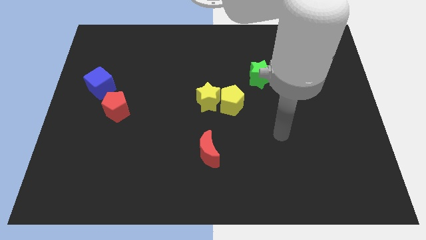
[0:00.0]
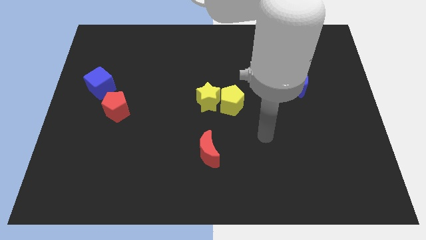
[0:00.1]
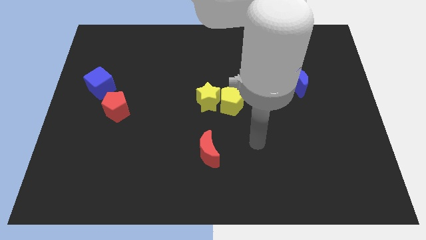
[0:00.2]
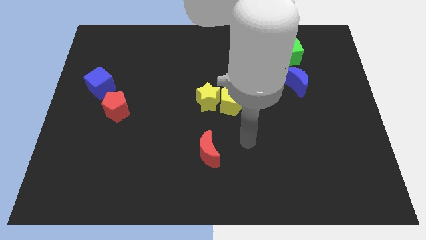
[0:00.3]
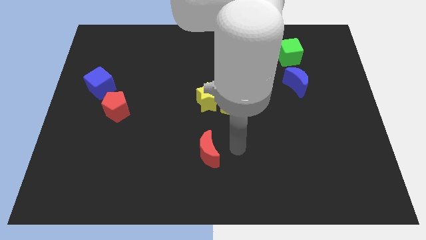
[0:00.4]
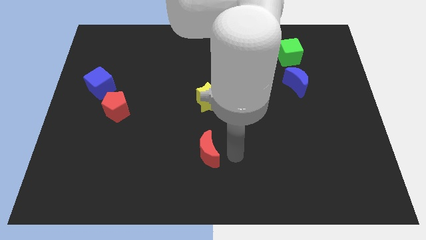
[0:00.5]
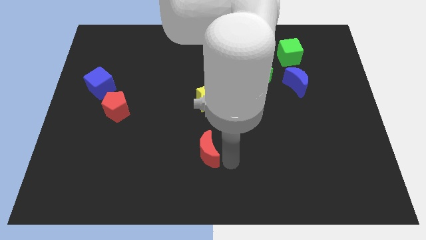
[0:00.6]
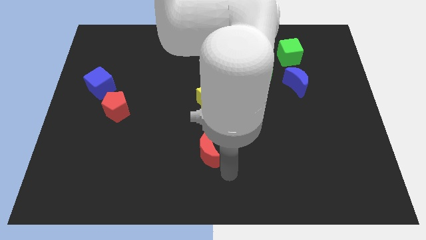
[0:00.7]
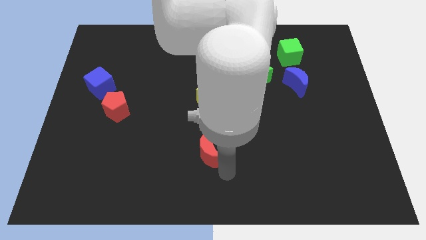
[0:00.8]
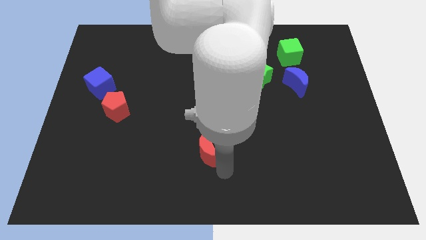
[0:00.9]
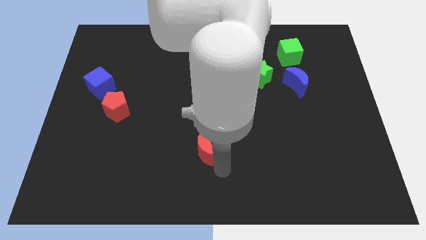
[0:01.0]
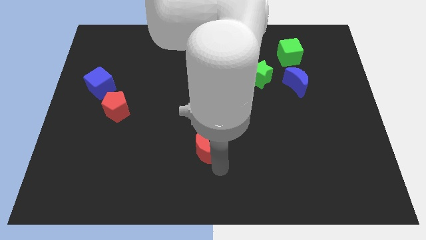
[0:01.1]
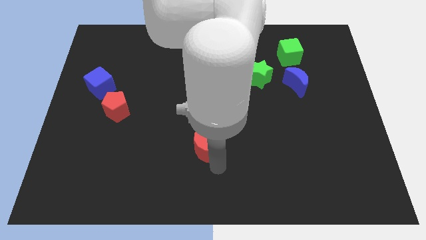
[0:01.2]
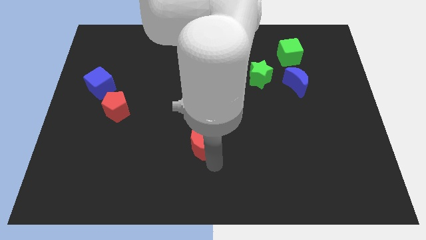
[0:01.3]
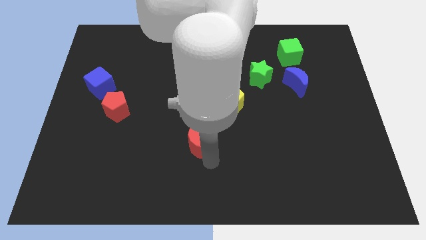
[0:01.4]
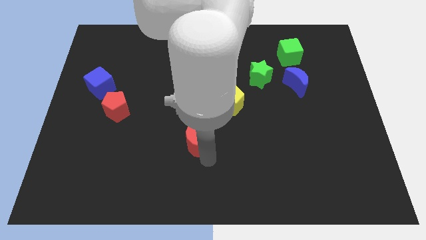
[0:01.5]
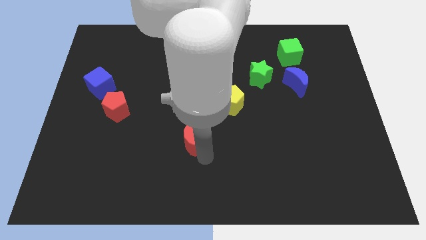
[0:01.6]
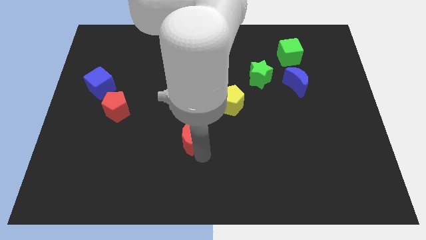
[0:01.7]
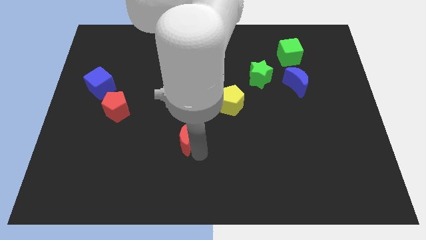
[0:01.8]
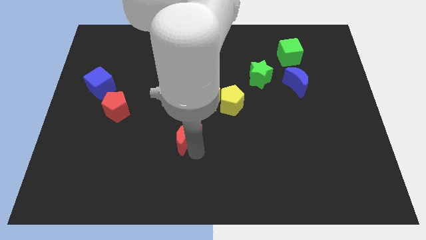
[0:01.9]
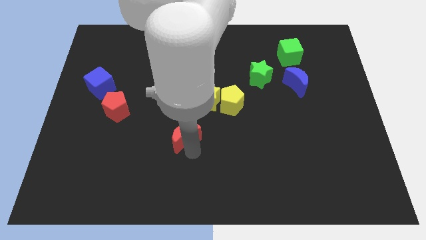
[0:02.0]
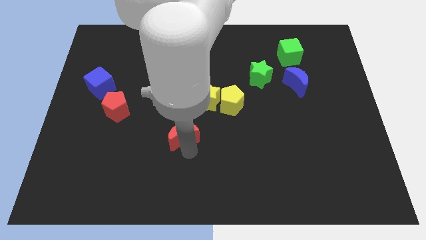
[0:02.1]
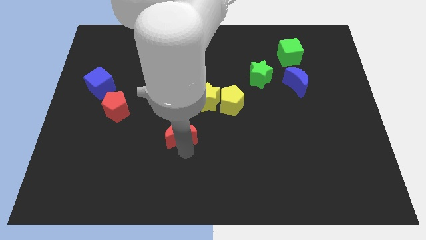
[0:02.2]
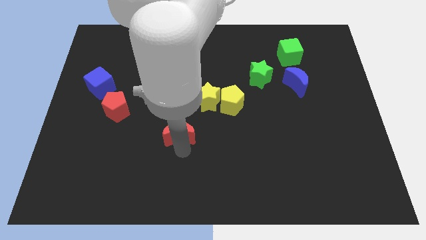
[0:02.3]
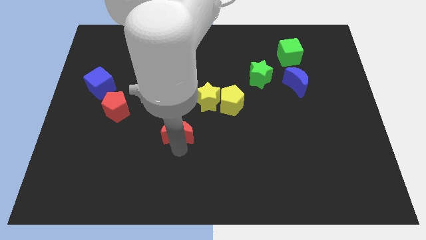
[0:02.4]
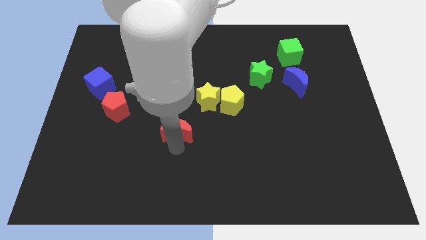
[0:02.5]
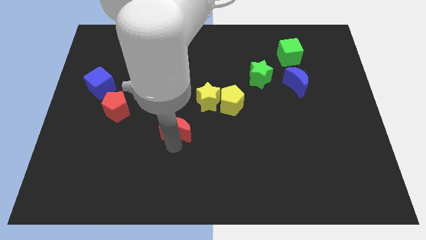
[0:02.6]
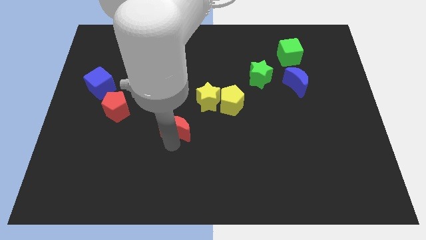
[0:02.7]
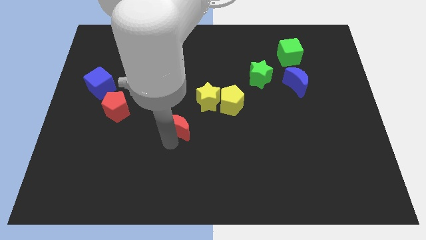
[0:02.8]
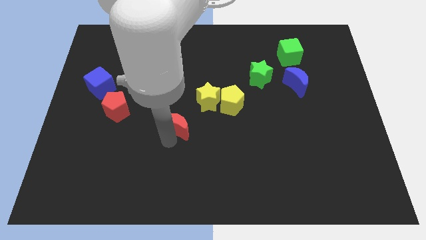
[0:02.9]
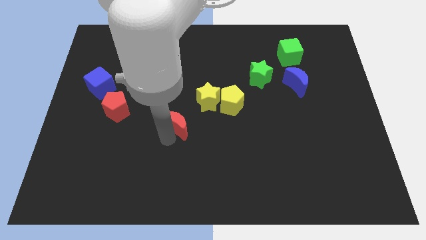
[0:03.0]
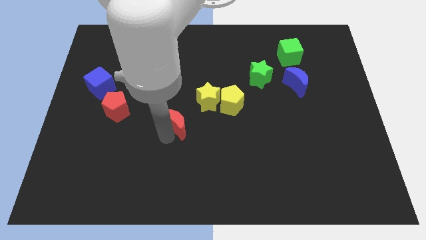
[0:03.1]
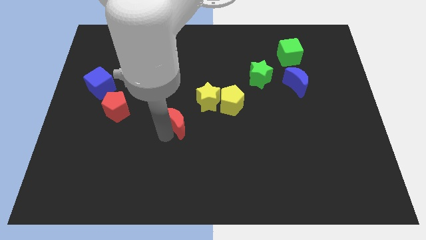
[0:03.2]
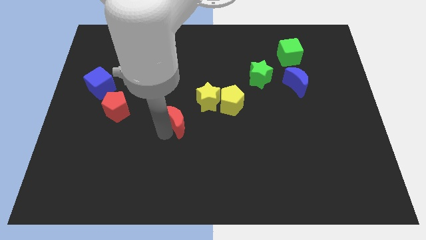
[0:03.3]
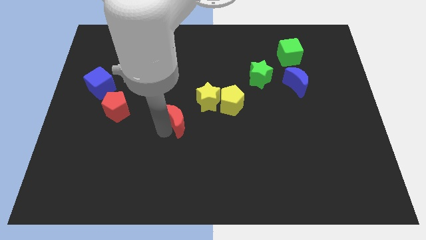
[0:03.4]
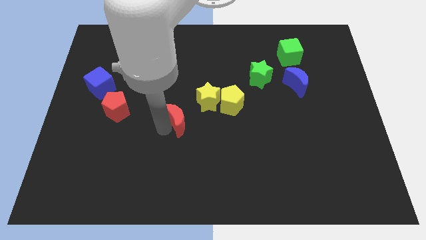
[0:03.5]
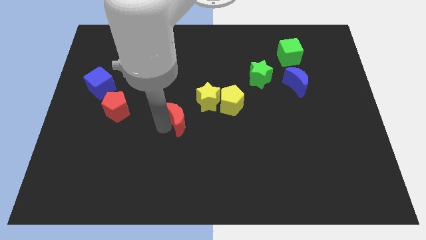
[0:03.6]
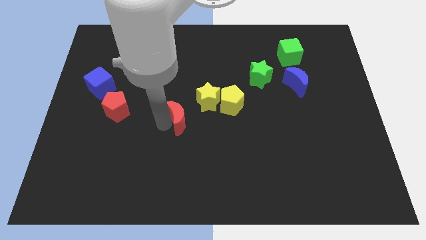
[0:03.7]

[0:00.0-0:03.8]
slightly move the red moon up

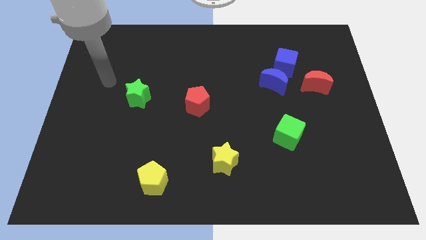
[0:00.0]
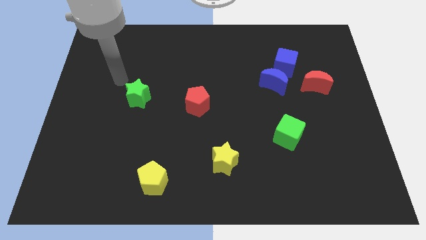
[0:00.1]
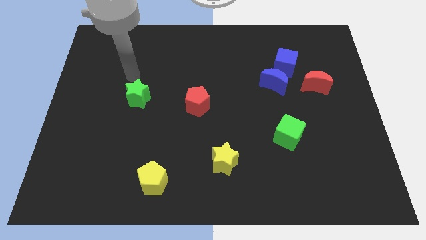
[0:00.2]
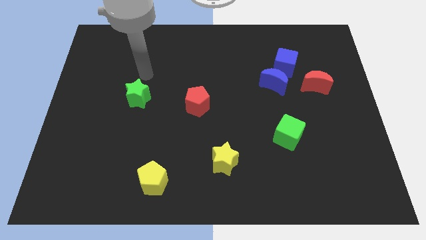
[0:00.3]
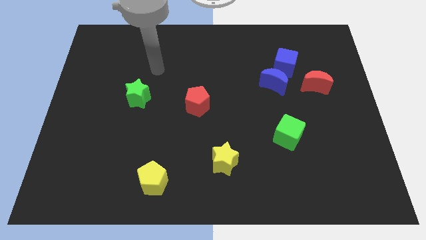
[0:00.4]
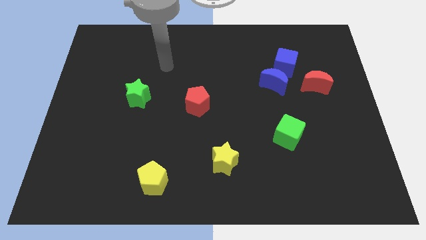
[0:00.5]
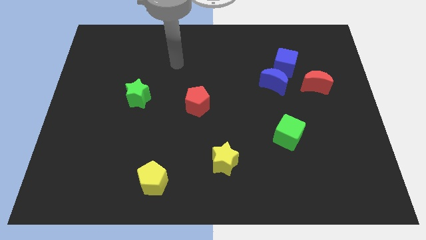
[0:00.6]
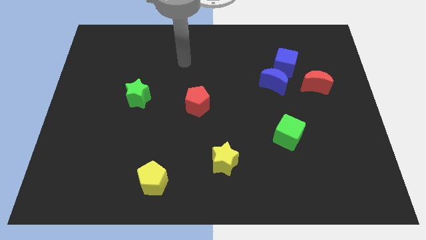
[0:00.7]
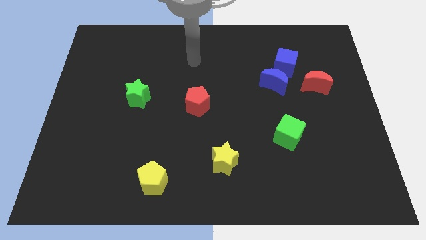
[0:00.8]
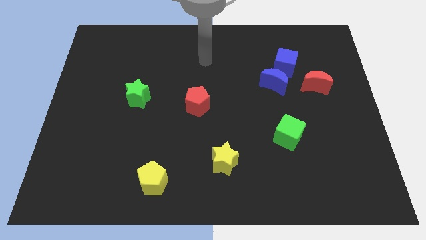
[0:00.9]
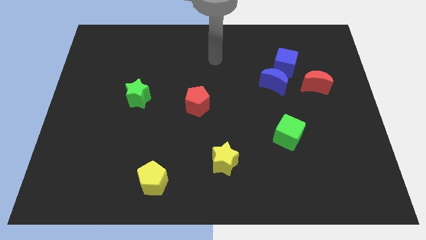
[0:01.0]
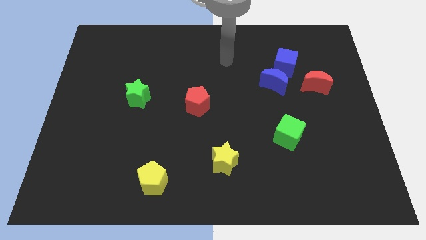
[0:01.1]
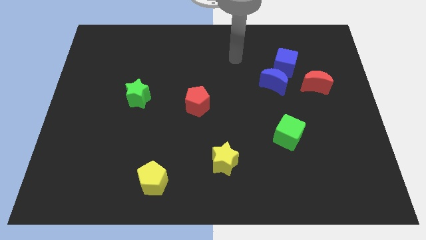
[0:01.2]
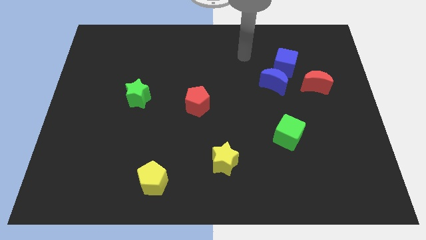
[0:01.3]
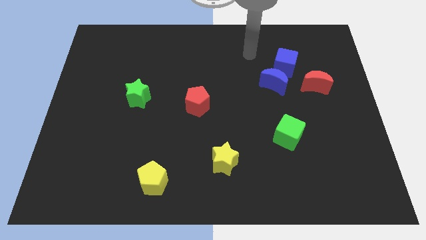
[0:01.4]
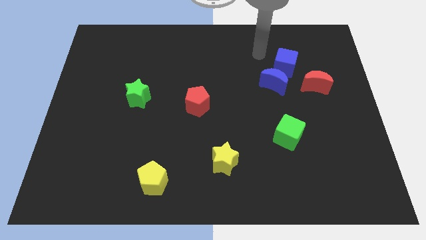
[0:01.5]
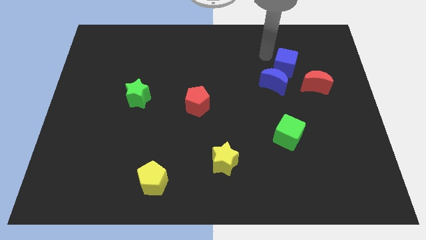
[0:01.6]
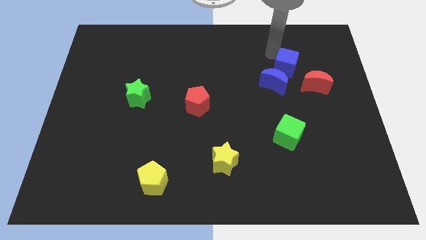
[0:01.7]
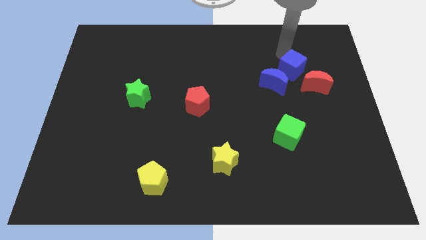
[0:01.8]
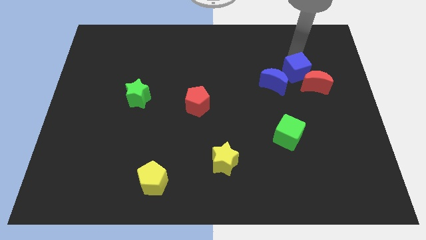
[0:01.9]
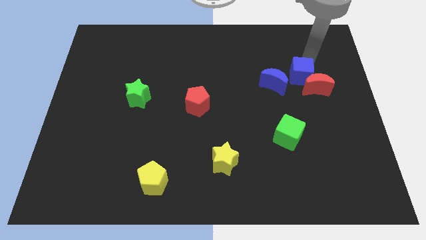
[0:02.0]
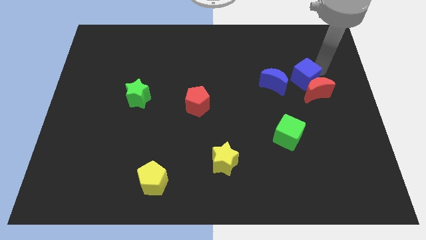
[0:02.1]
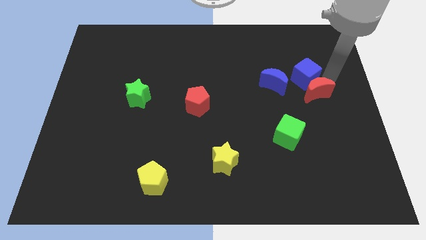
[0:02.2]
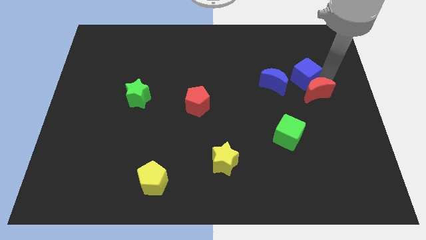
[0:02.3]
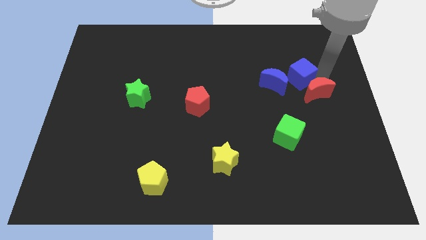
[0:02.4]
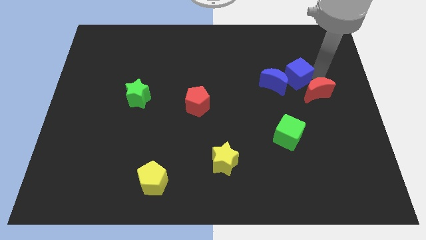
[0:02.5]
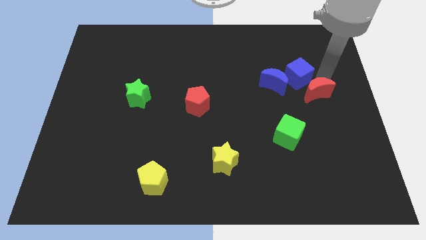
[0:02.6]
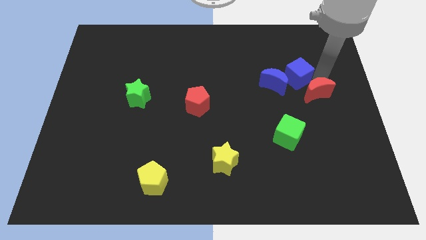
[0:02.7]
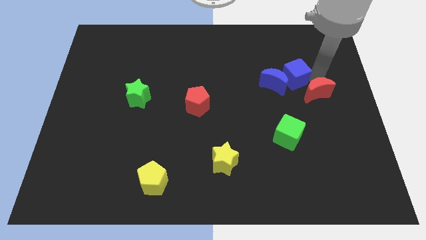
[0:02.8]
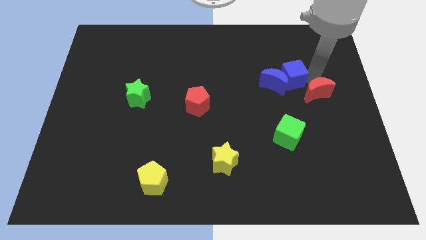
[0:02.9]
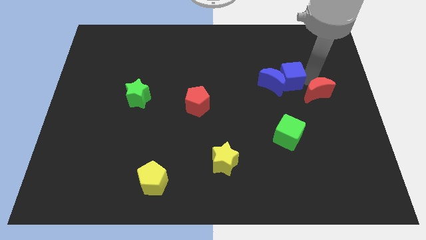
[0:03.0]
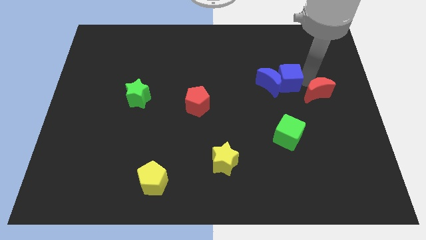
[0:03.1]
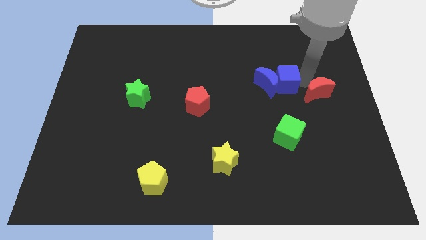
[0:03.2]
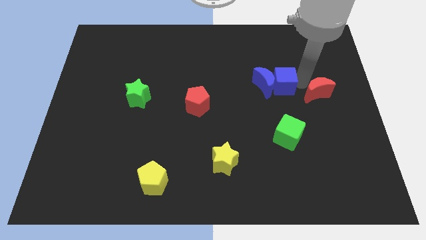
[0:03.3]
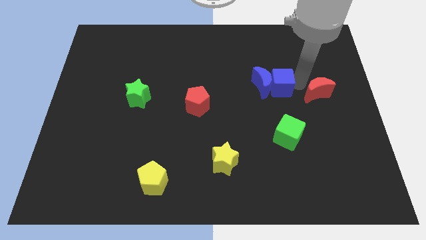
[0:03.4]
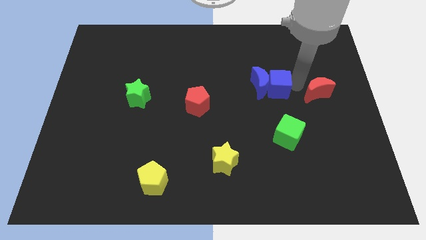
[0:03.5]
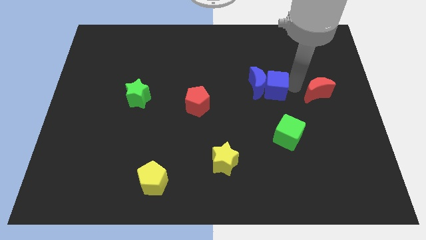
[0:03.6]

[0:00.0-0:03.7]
slide the blue cube slightly downwards and to the left

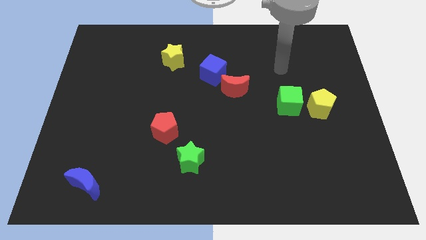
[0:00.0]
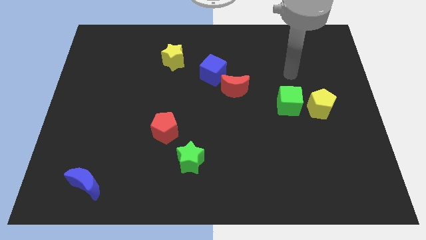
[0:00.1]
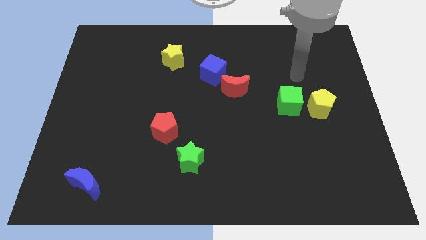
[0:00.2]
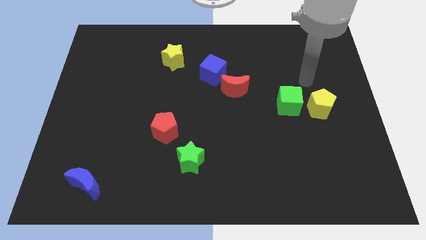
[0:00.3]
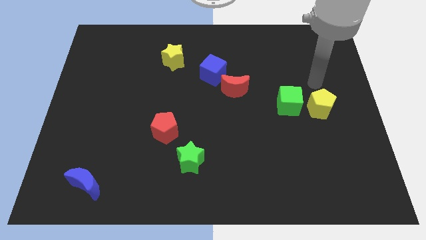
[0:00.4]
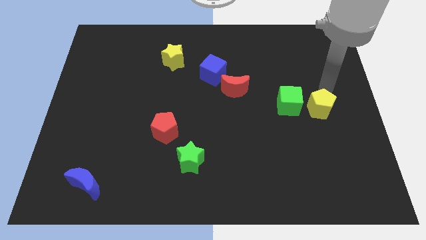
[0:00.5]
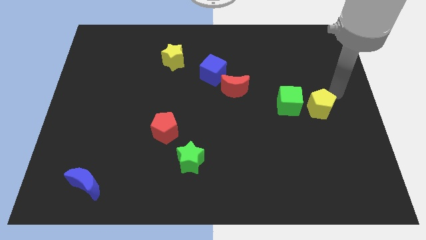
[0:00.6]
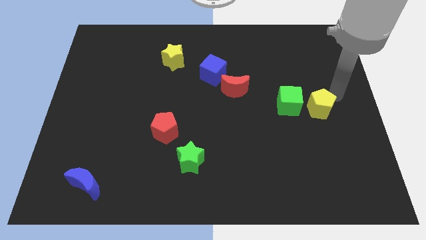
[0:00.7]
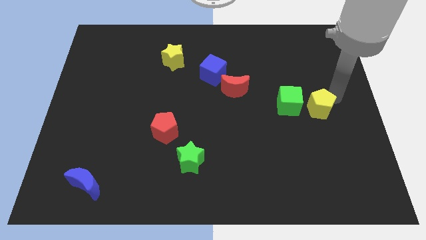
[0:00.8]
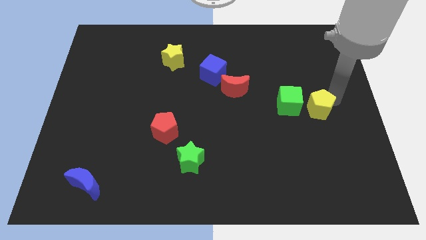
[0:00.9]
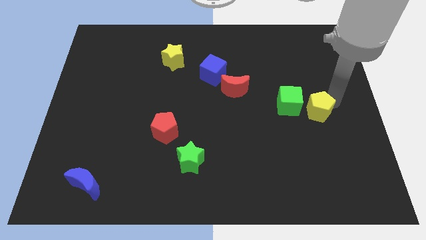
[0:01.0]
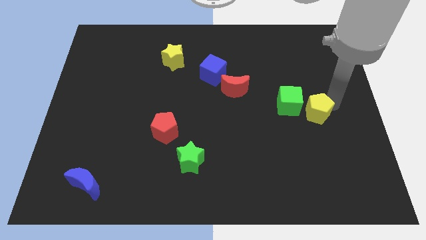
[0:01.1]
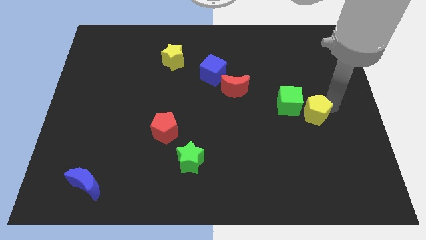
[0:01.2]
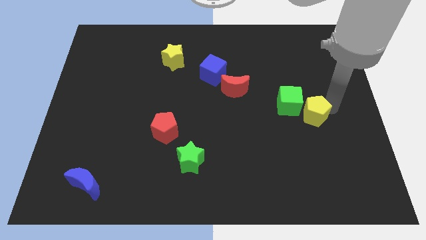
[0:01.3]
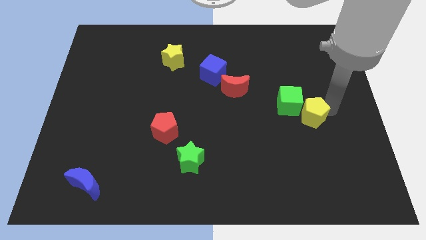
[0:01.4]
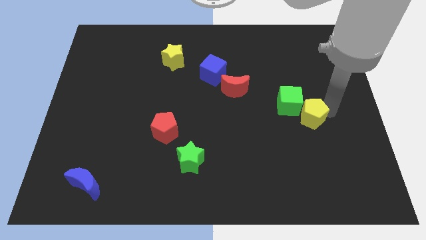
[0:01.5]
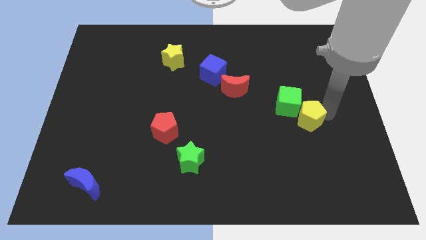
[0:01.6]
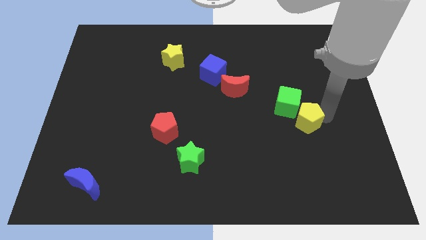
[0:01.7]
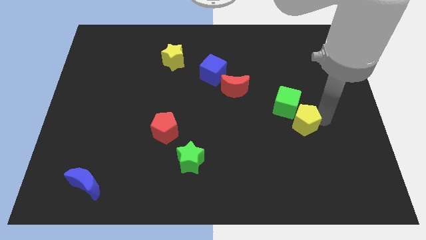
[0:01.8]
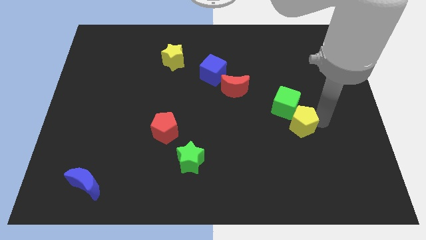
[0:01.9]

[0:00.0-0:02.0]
slightly push the yellow pentagon down and then left
